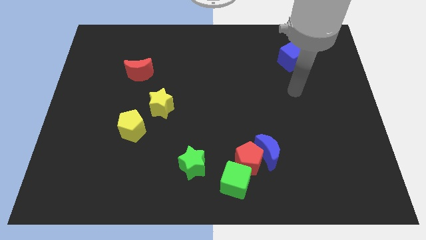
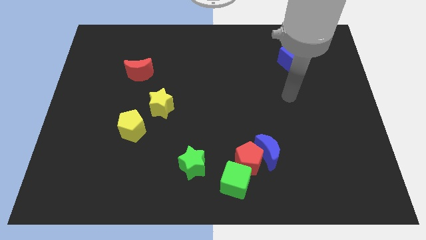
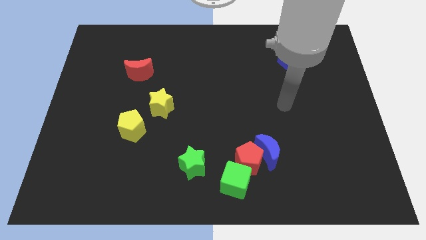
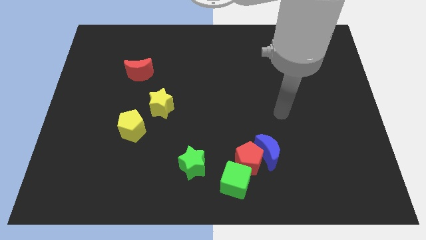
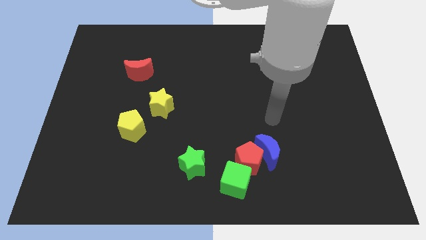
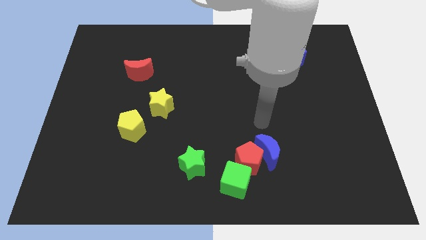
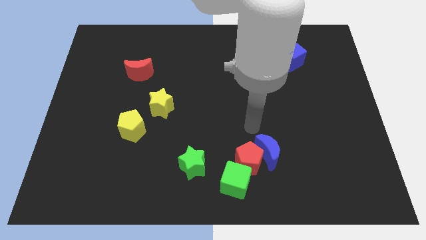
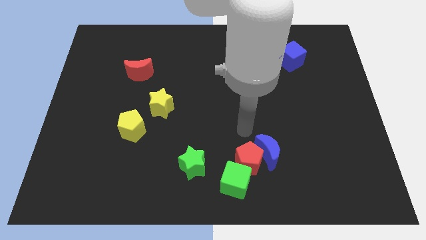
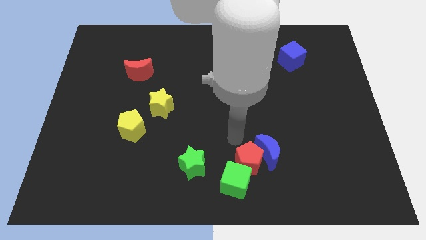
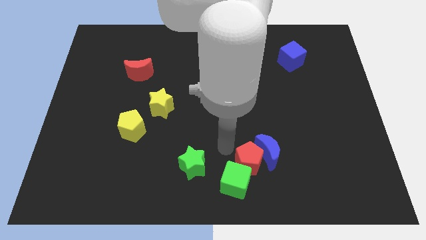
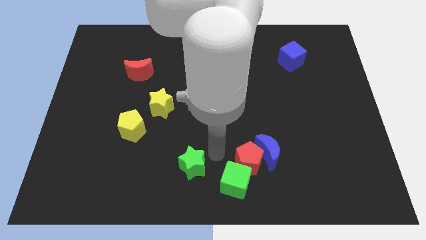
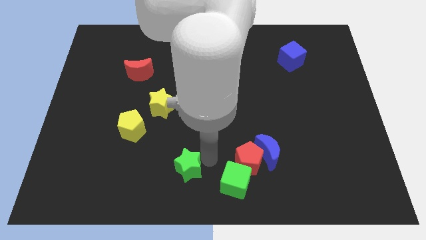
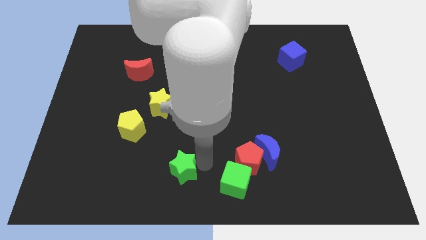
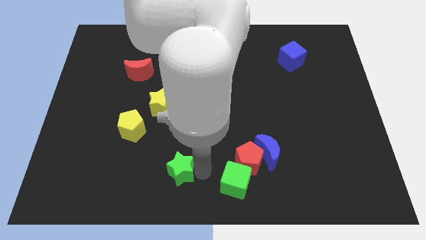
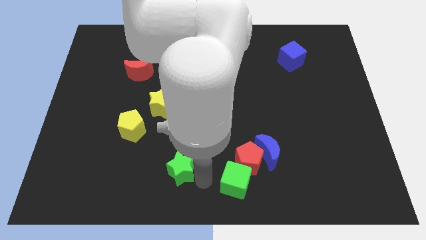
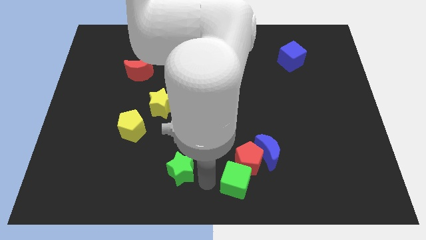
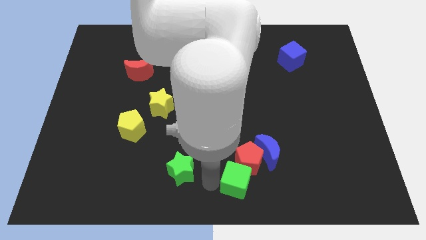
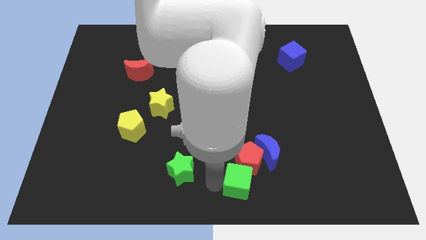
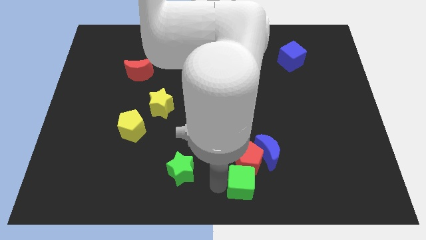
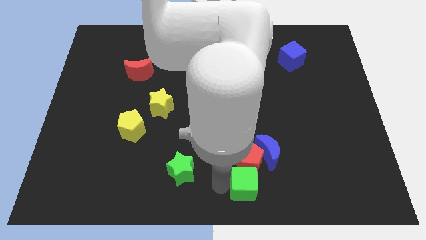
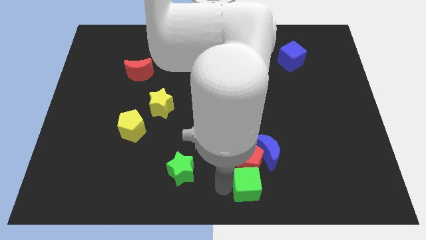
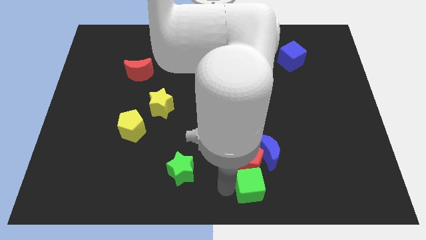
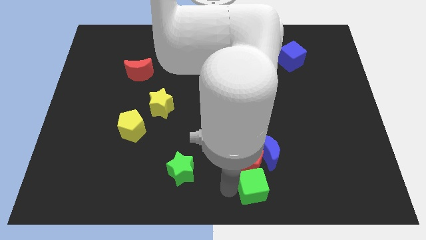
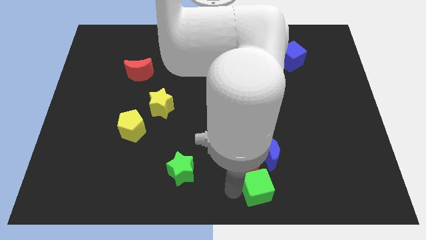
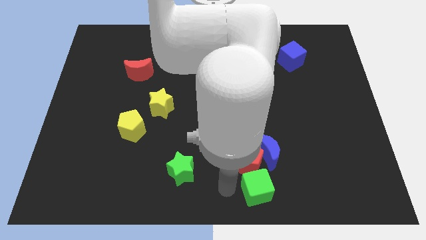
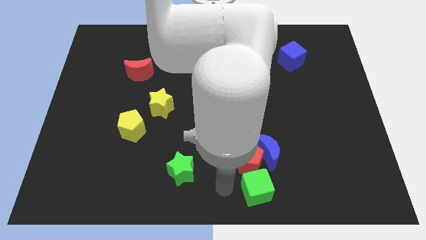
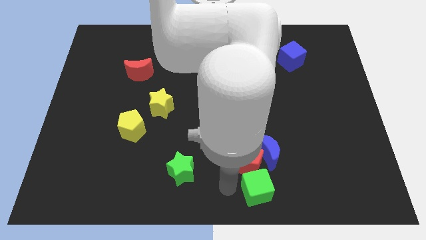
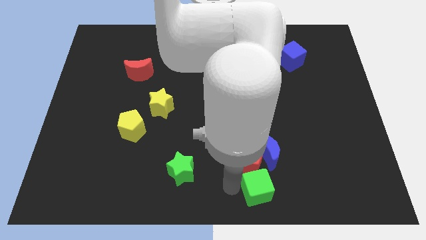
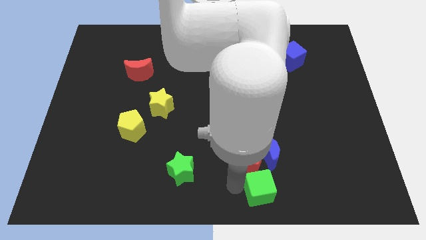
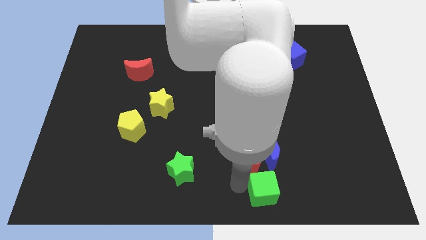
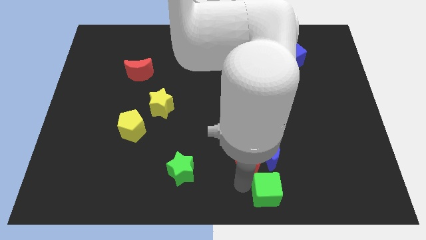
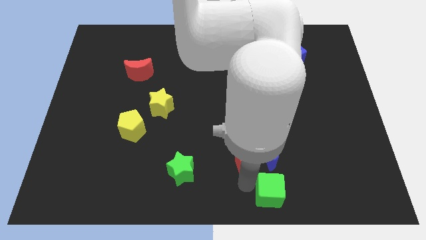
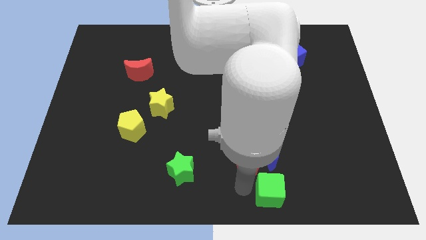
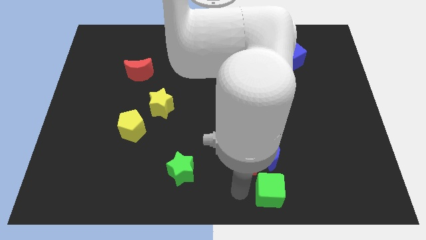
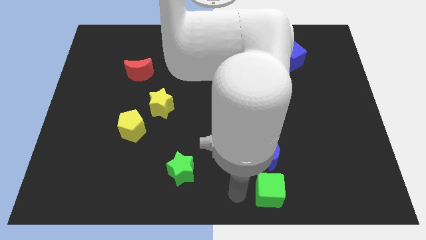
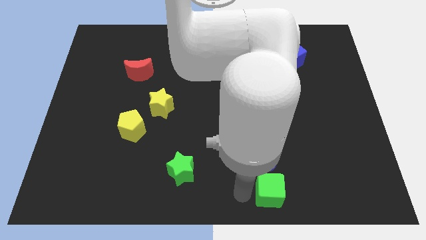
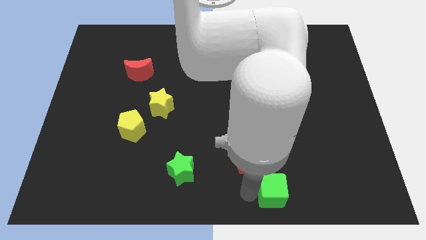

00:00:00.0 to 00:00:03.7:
slightly move the green cube right

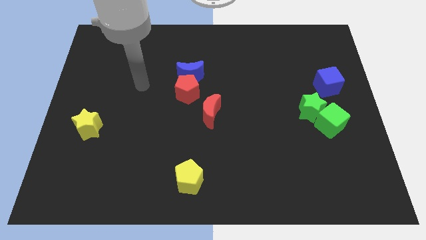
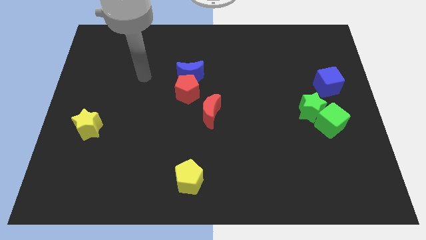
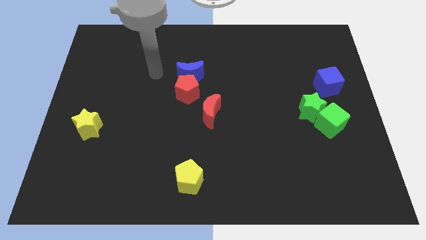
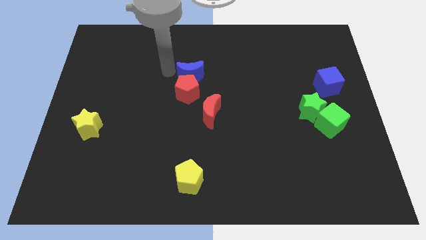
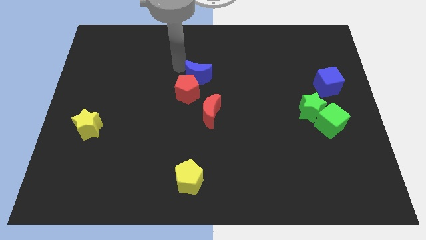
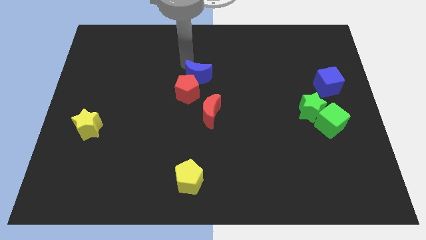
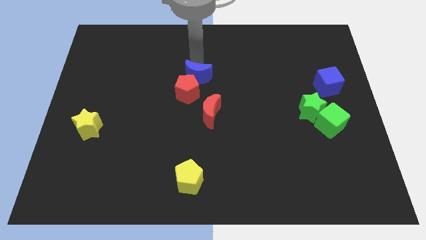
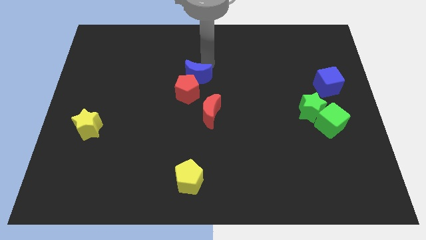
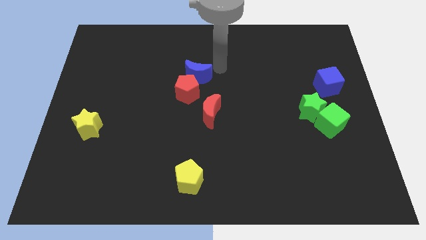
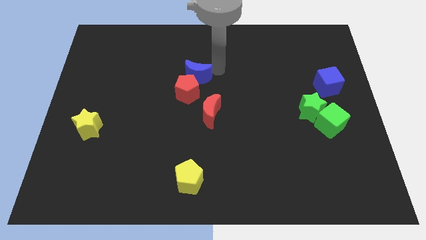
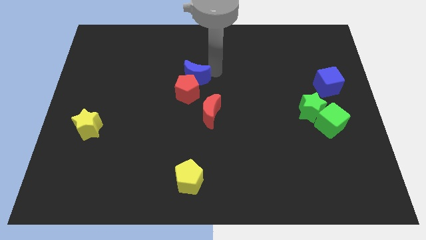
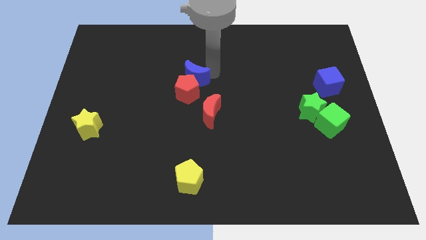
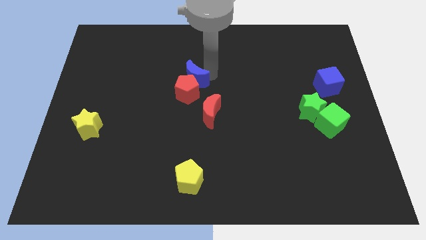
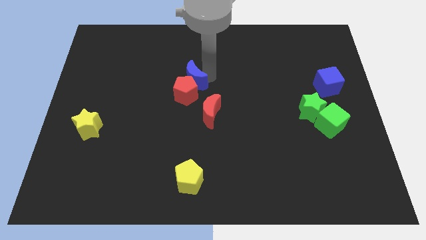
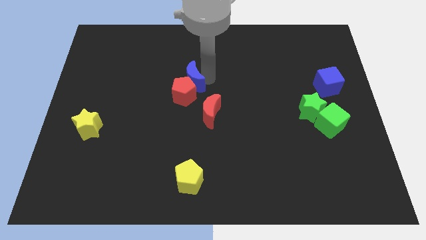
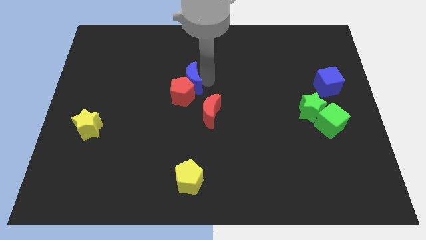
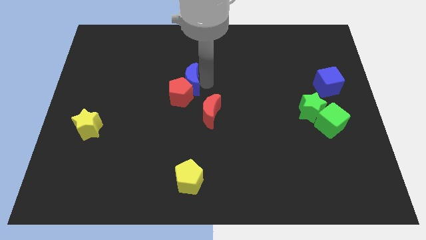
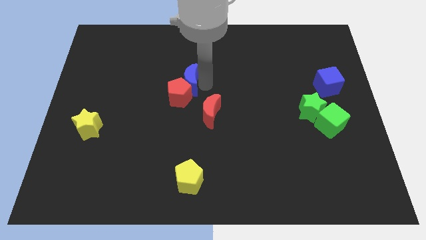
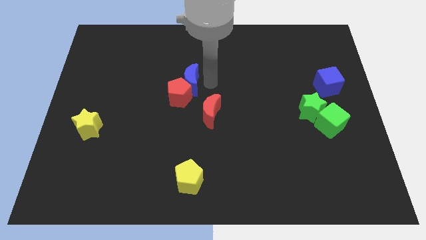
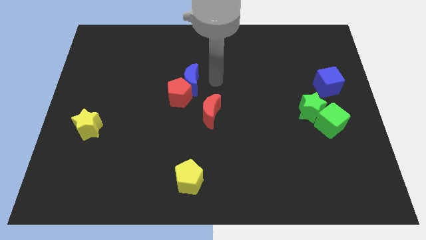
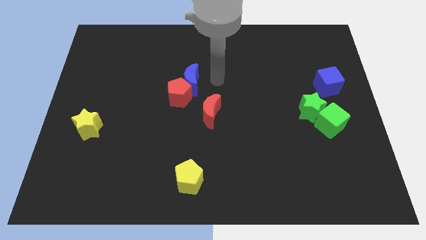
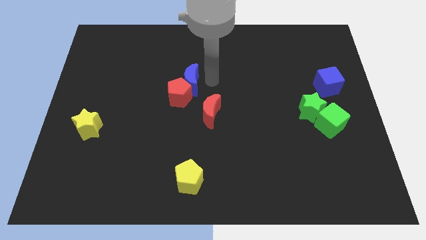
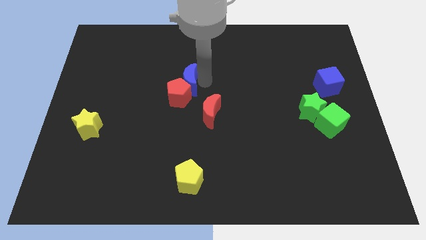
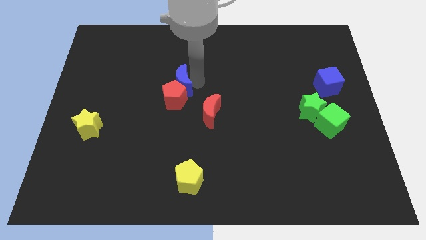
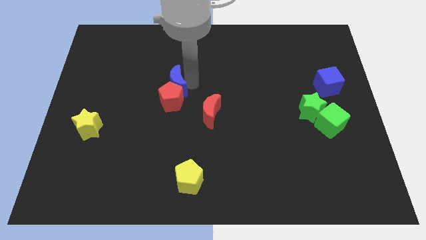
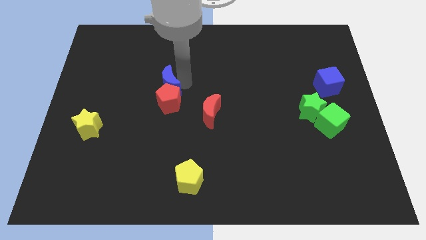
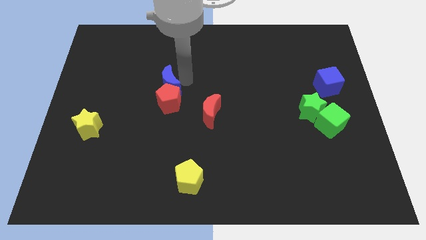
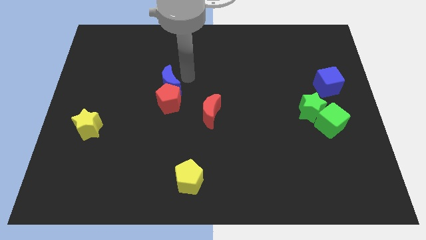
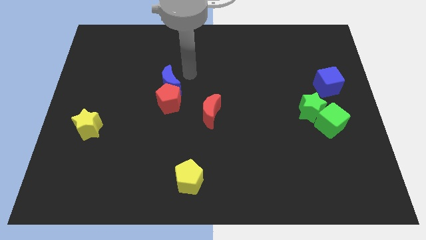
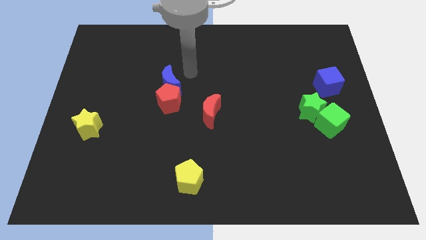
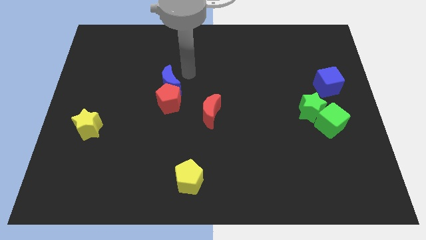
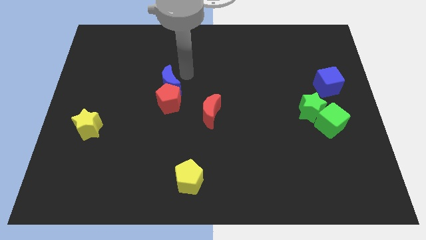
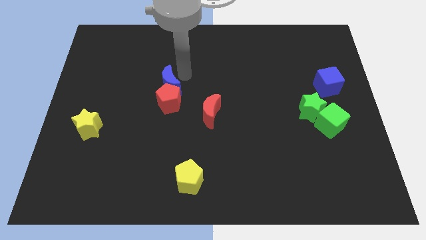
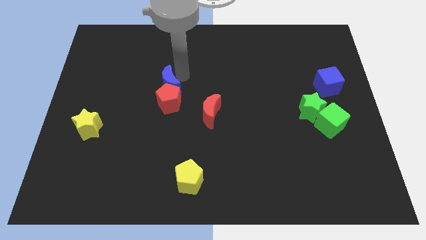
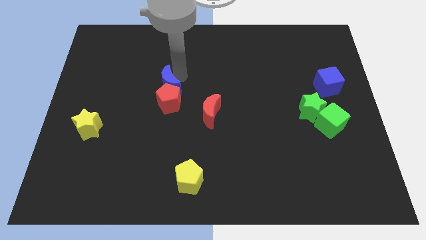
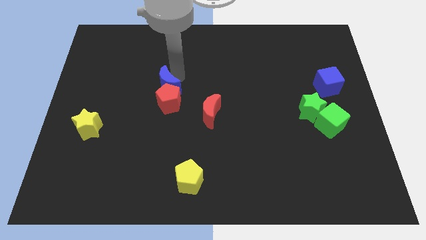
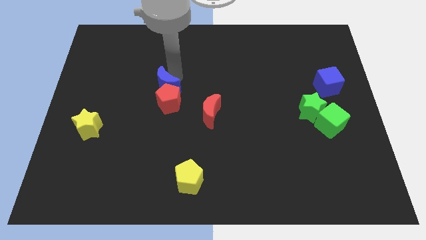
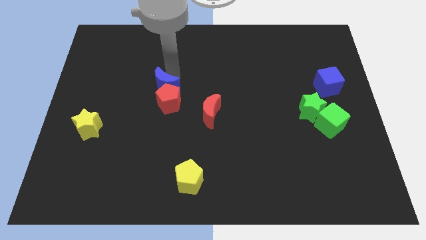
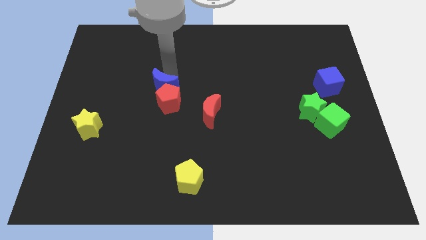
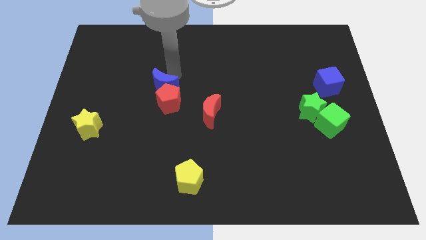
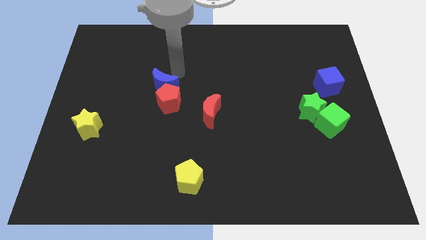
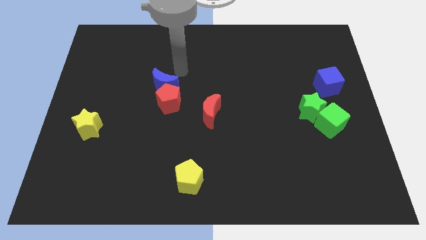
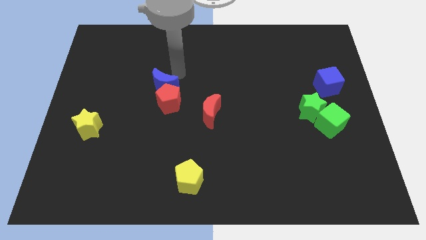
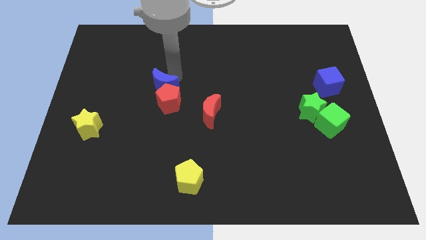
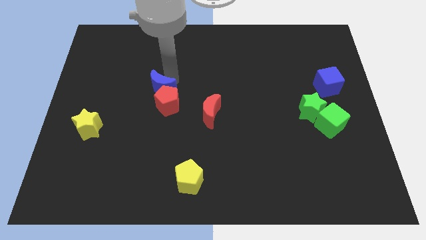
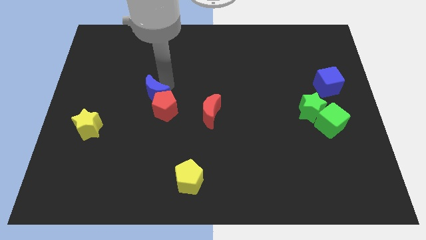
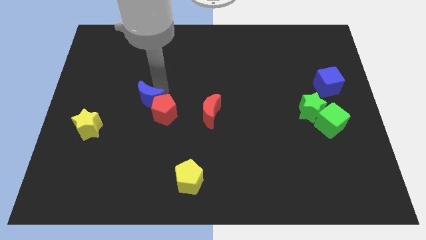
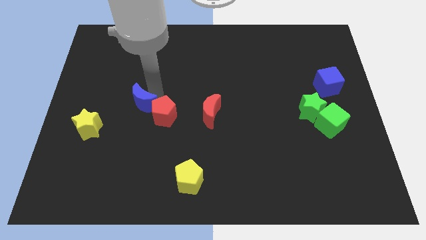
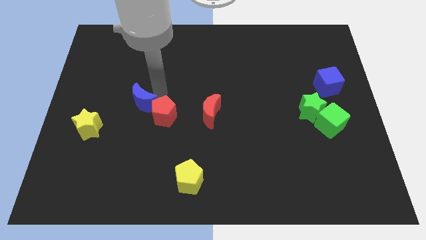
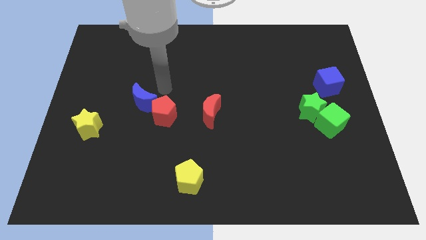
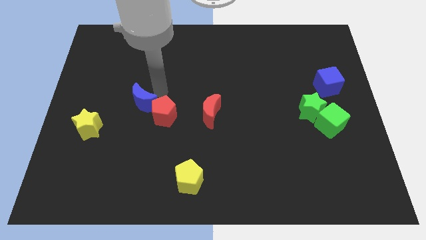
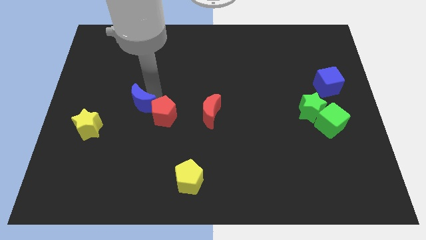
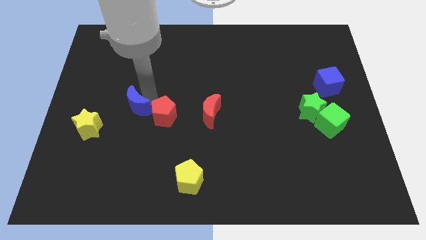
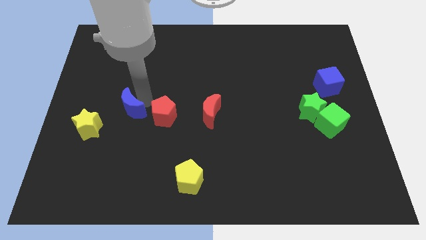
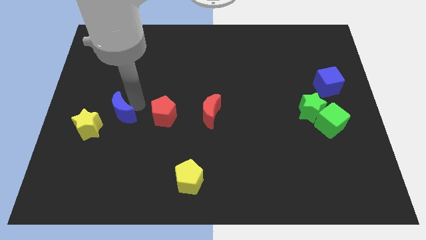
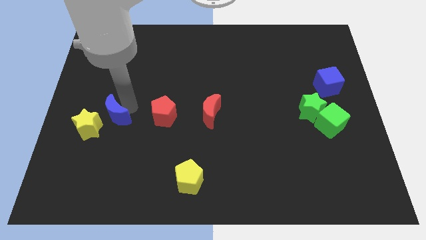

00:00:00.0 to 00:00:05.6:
push the blue moon downwards and then left
